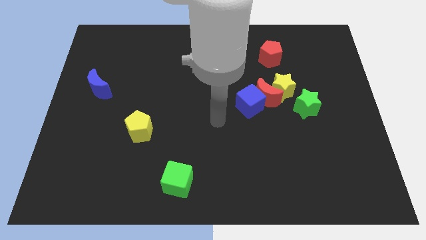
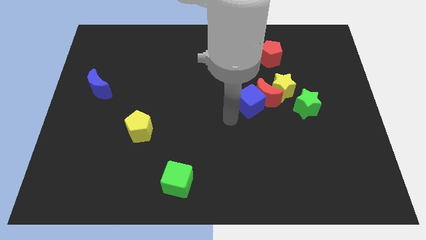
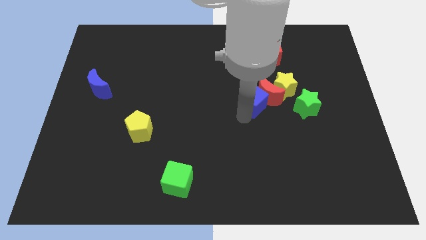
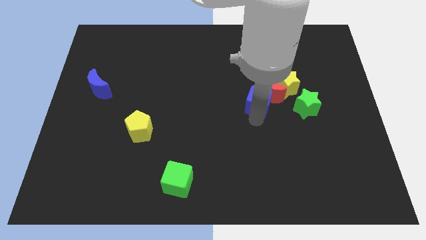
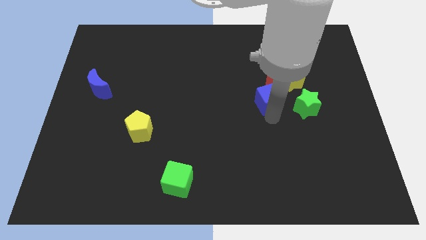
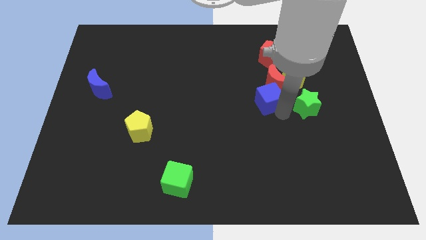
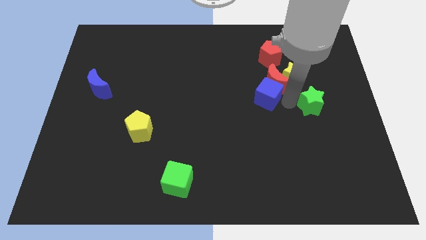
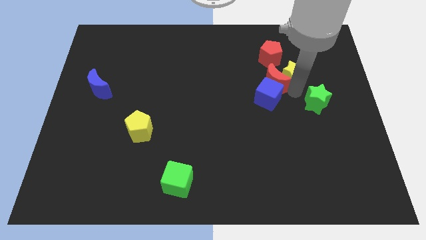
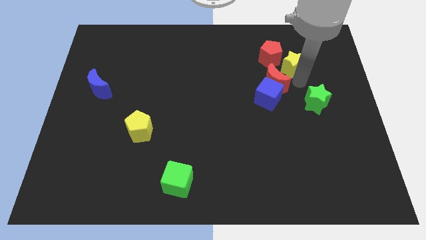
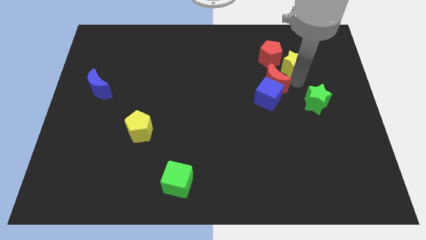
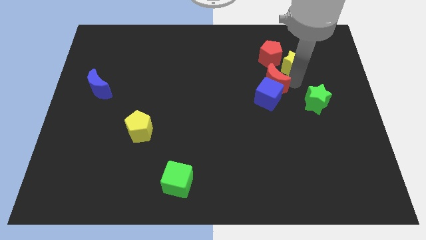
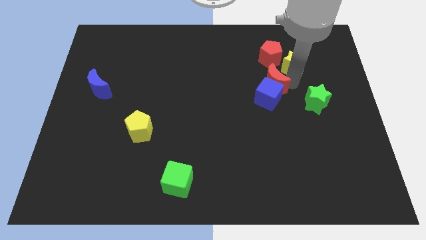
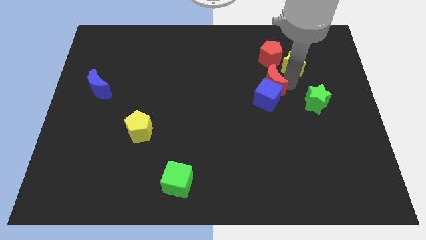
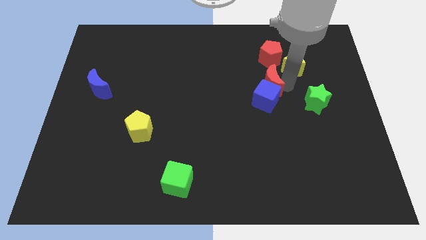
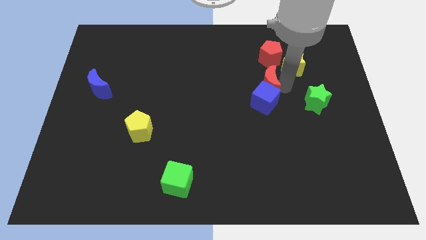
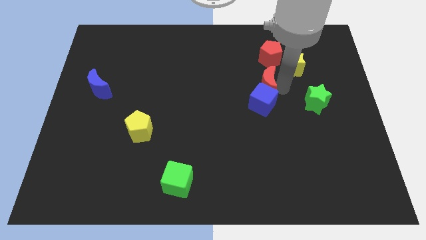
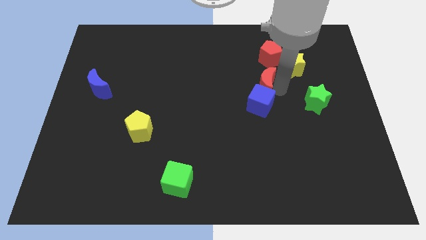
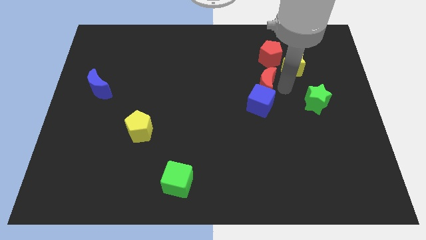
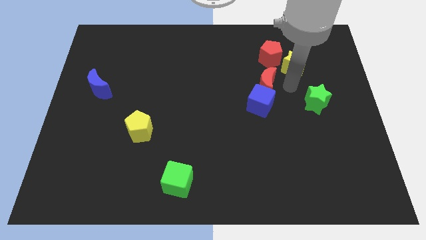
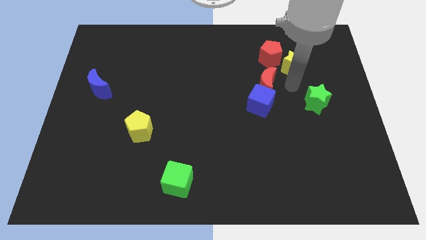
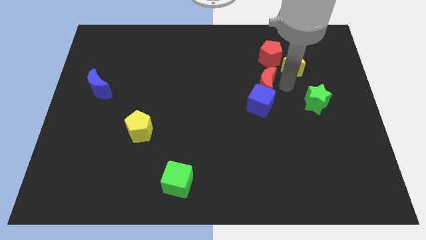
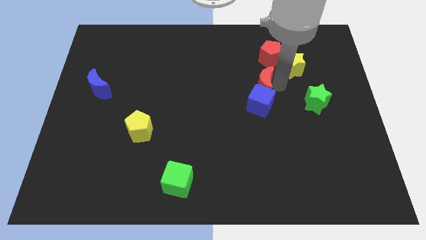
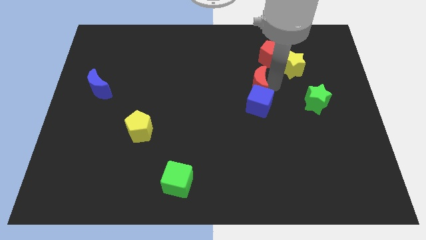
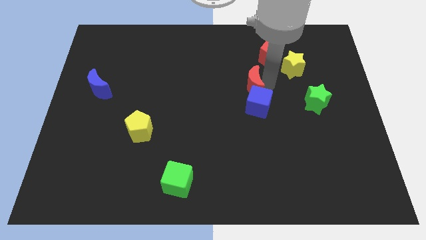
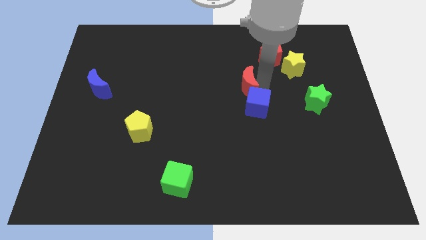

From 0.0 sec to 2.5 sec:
pull the red moon apart from the yellow star, blue cube, and green star

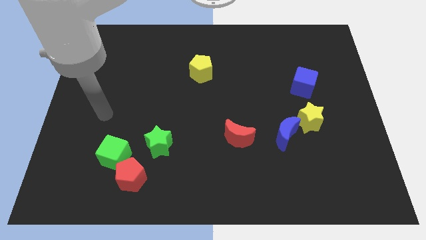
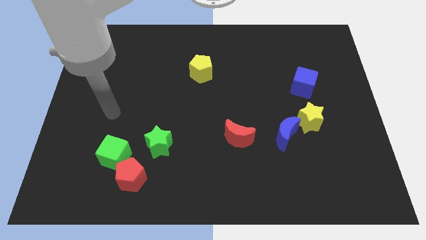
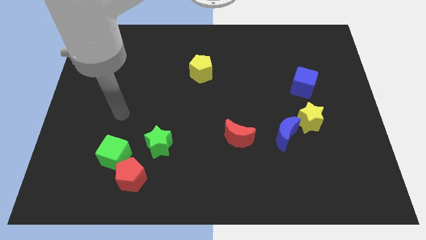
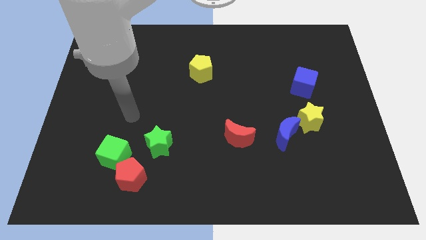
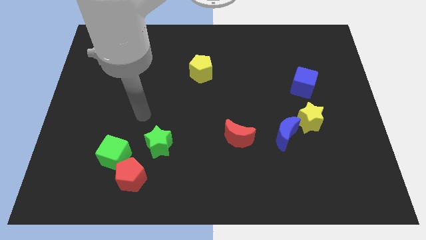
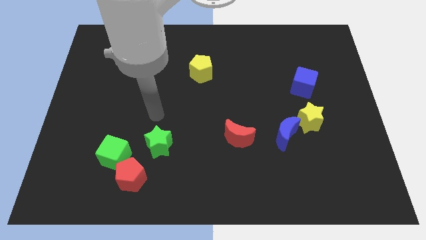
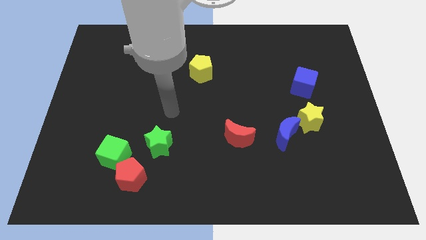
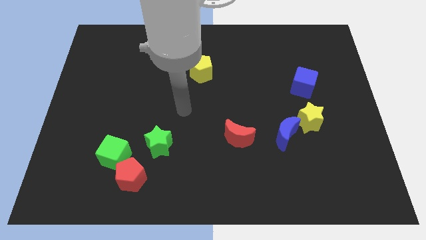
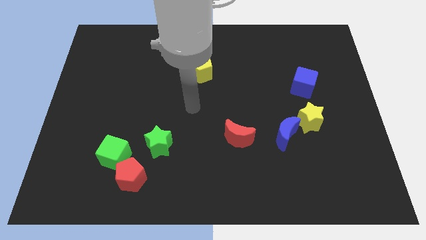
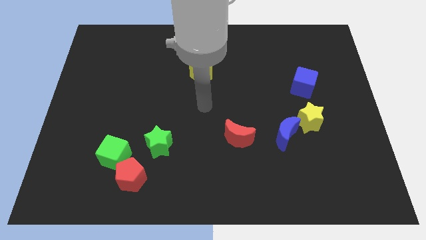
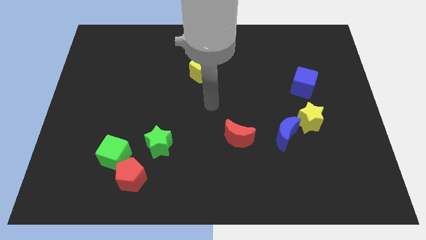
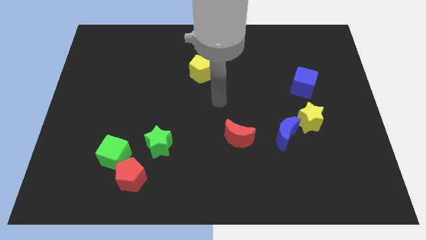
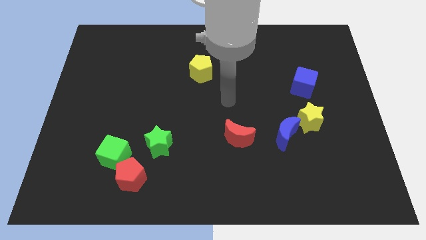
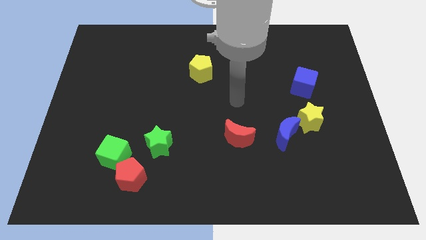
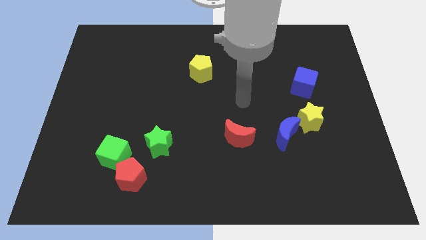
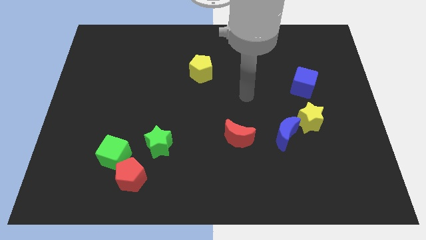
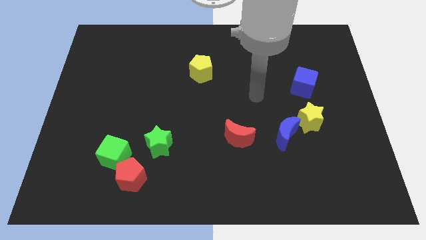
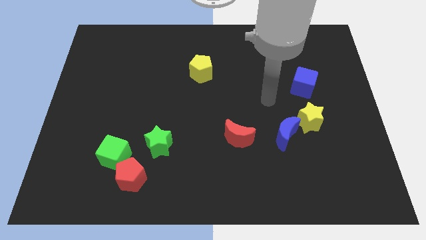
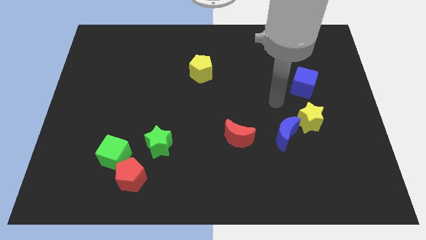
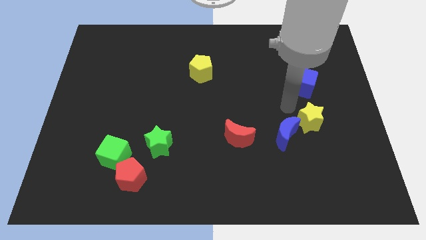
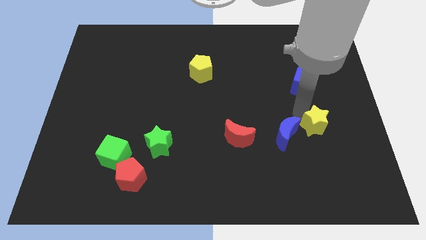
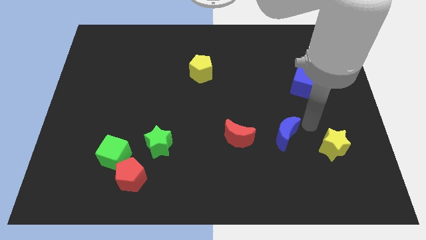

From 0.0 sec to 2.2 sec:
pull the blue moon apart from the yellow star

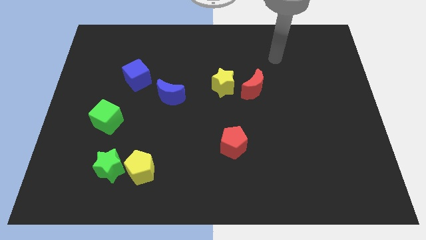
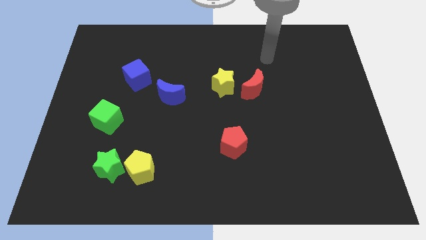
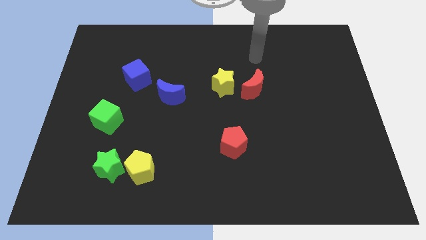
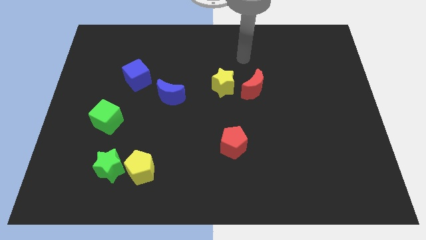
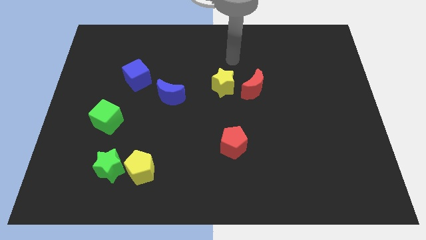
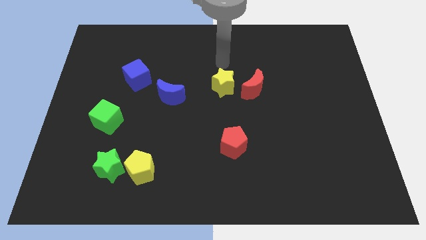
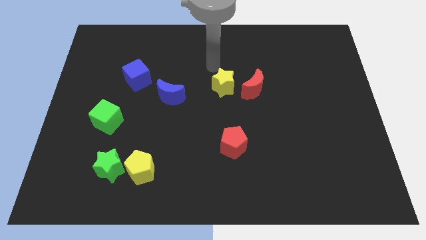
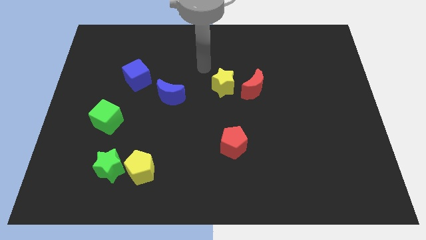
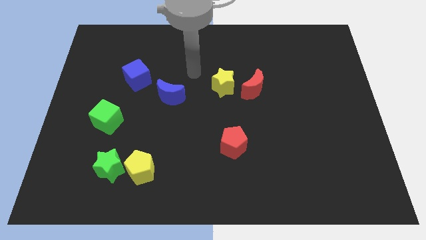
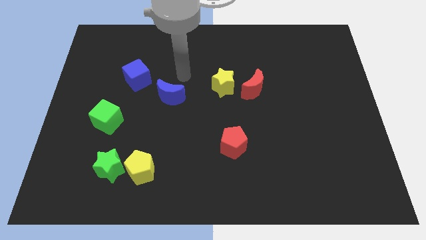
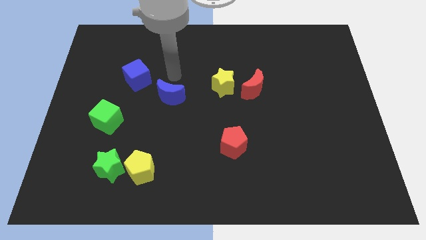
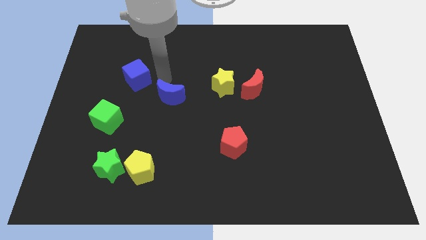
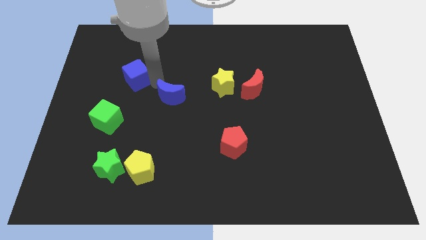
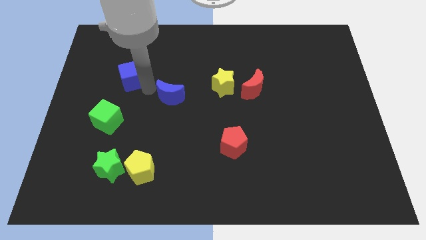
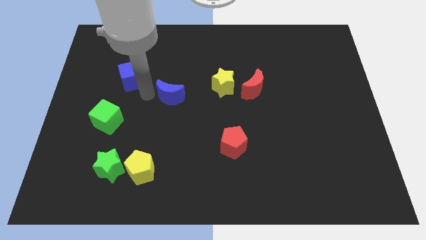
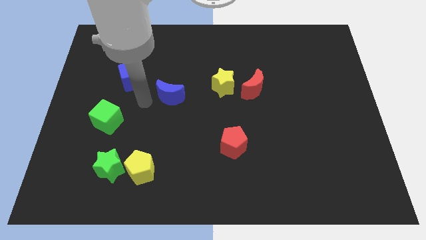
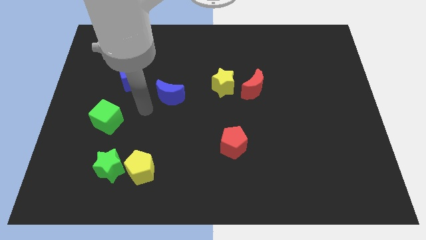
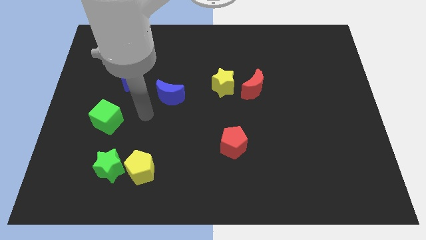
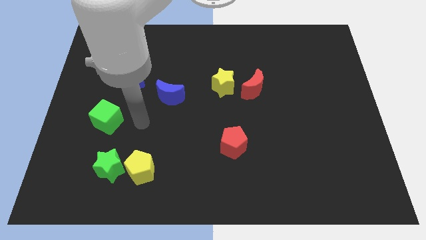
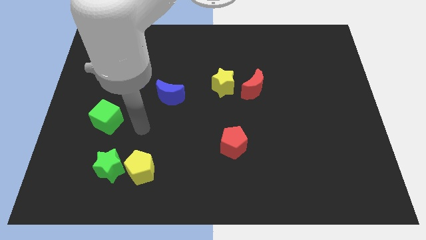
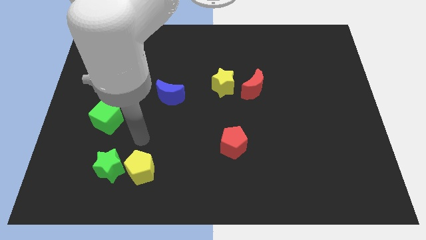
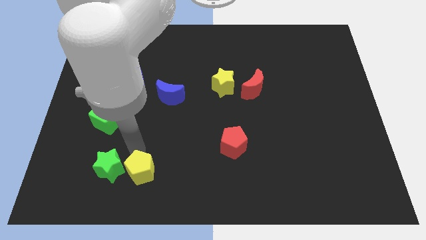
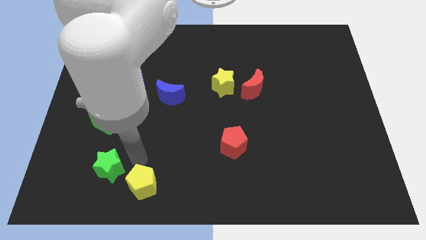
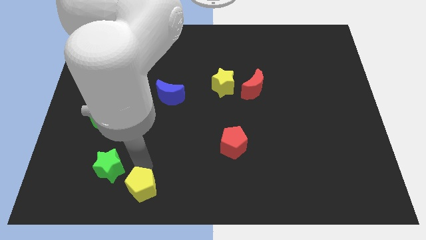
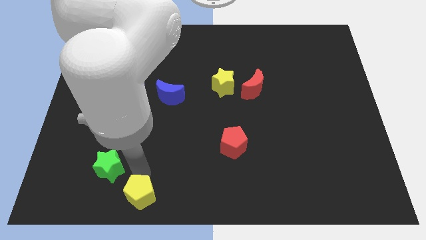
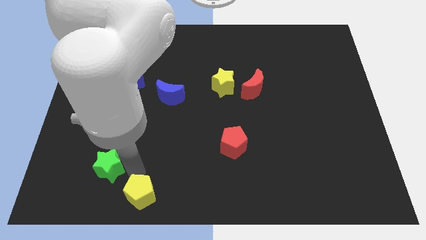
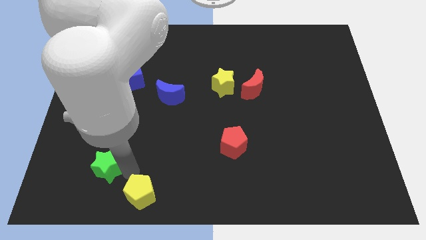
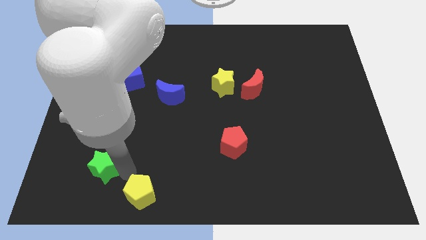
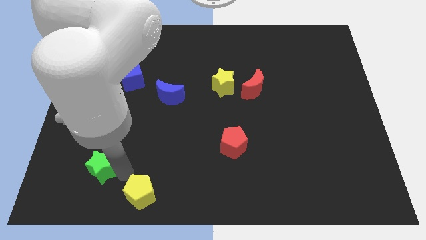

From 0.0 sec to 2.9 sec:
pull the green star apart from the yellow pentagon

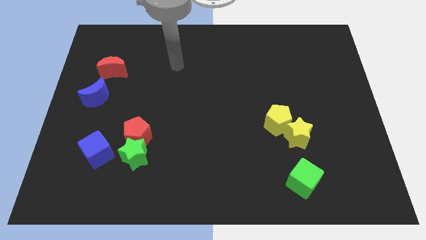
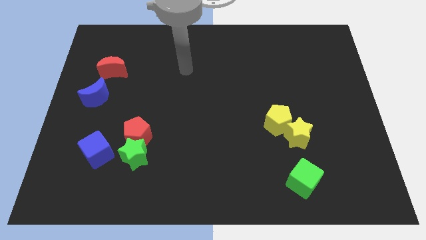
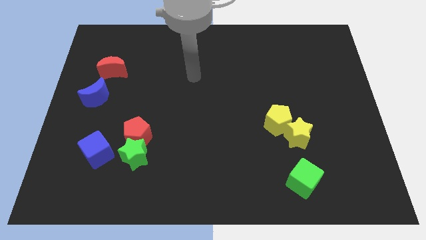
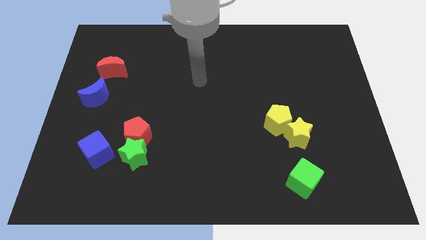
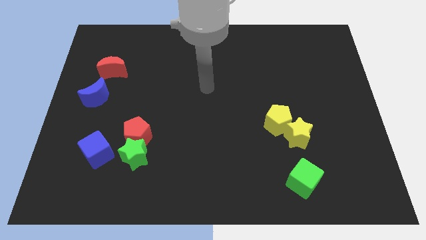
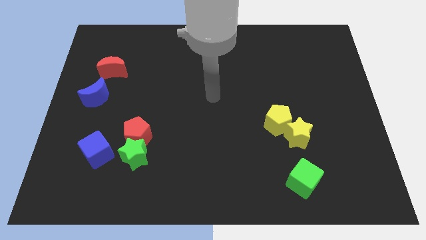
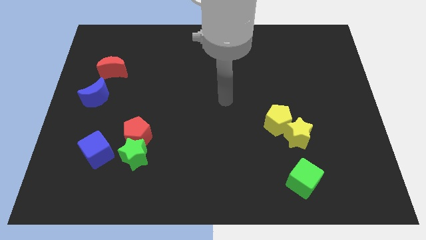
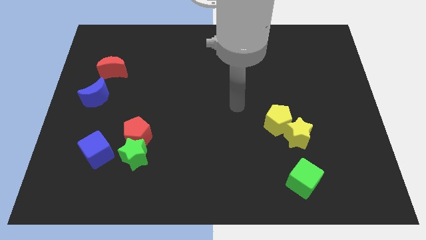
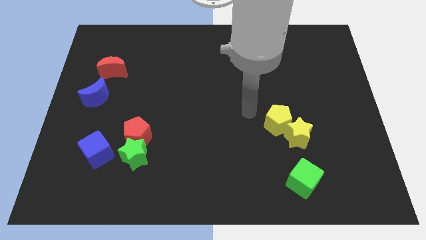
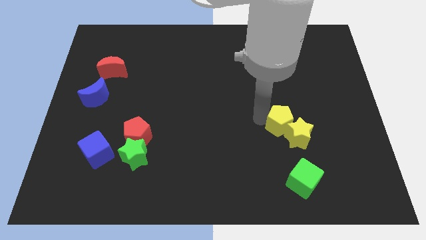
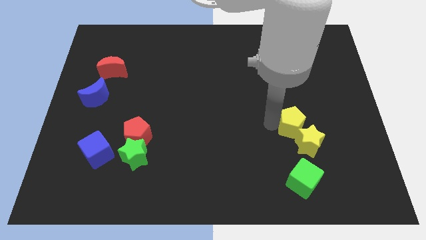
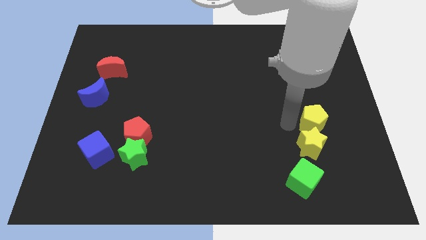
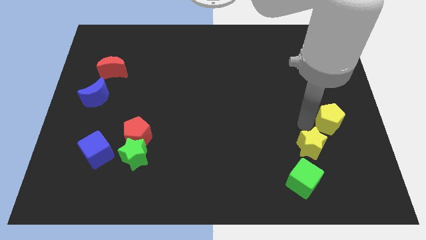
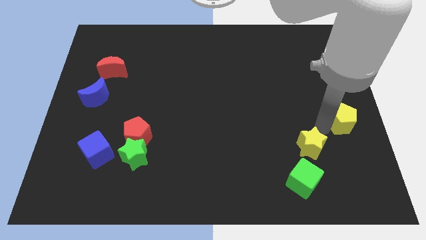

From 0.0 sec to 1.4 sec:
pull the yellow star apart from the yellow pentagon

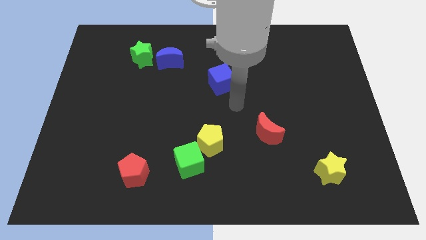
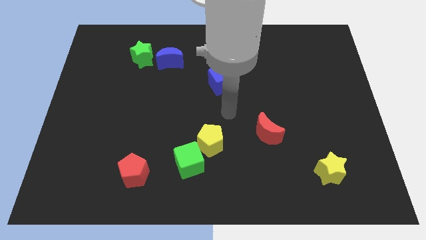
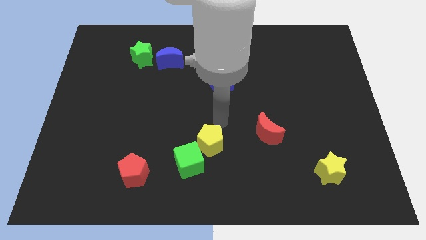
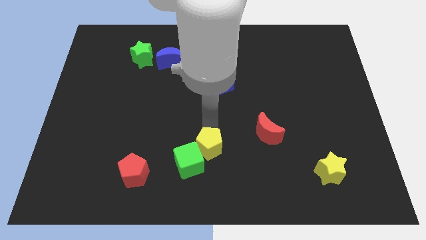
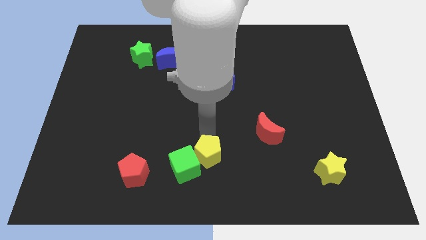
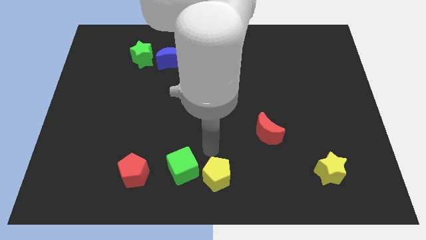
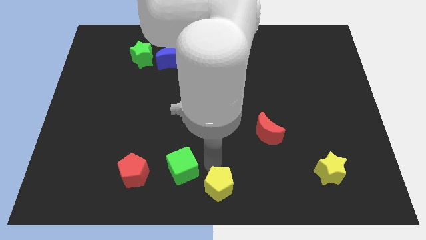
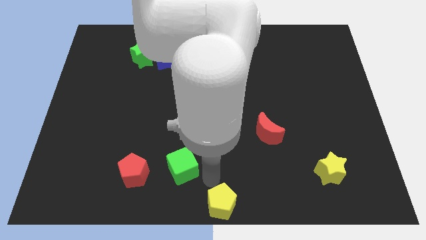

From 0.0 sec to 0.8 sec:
pull the green cube apart from the yellow pentagon
